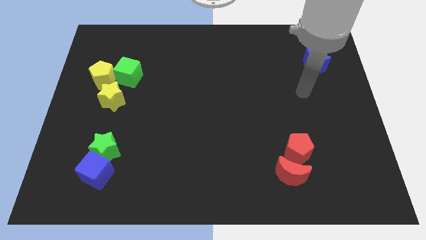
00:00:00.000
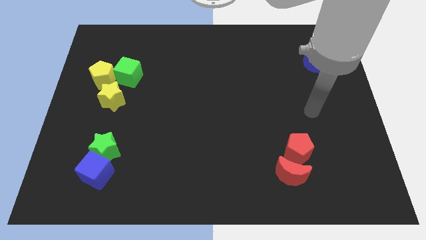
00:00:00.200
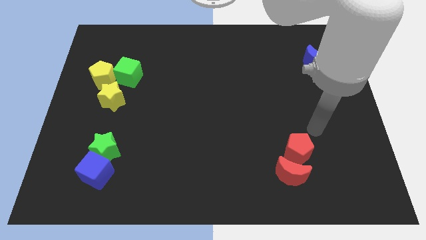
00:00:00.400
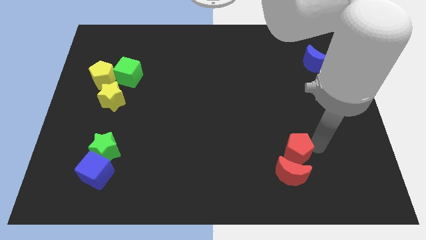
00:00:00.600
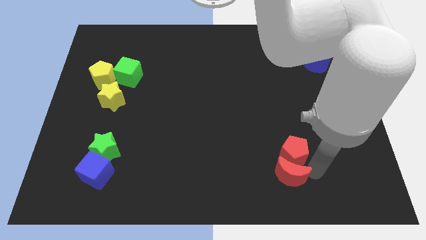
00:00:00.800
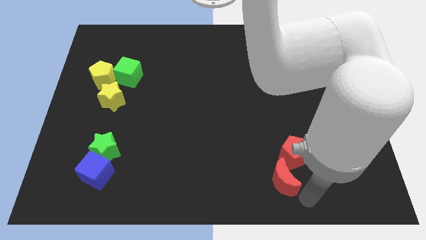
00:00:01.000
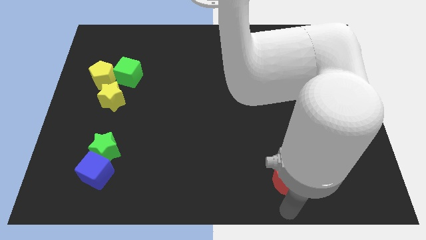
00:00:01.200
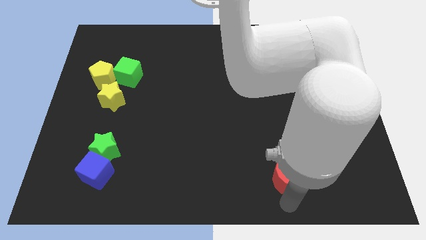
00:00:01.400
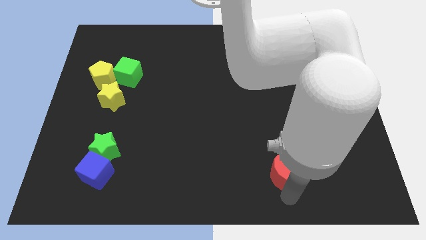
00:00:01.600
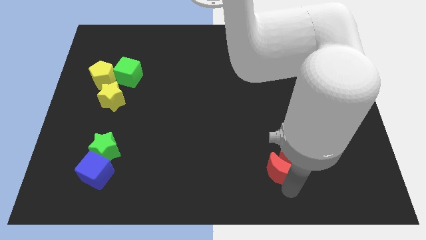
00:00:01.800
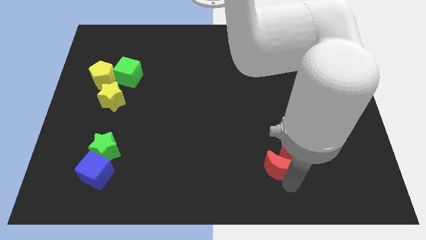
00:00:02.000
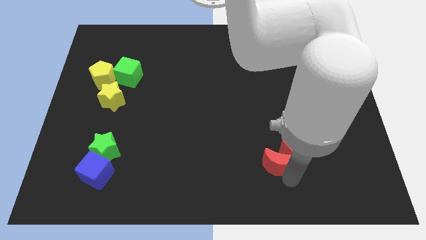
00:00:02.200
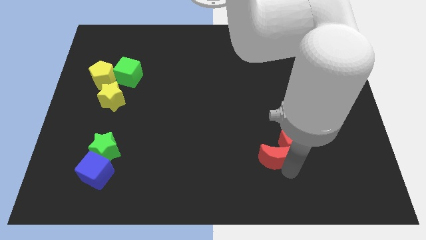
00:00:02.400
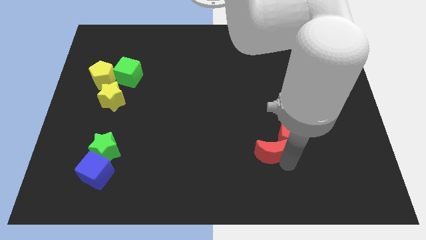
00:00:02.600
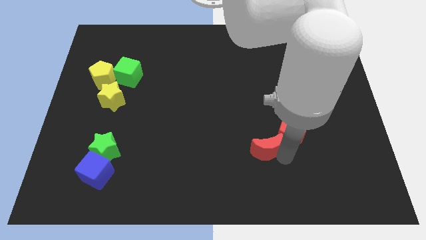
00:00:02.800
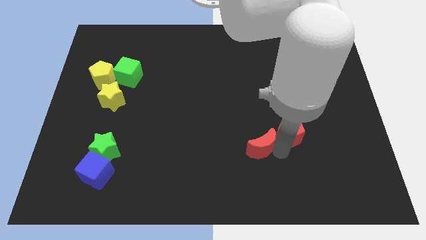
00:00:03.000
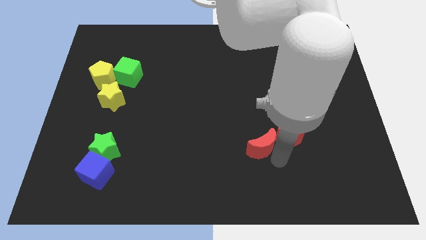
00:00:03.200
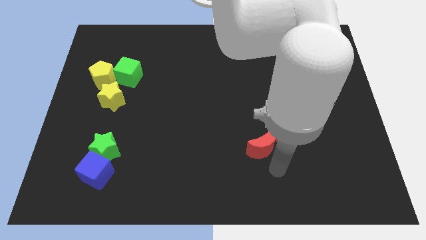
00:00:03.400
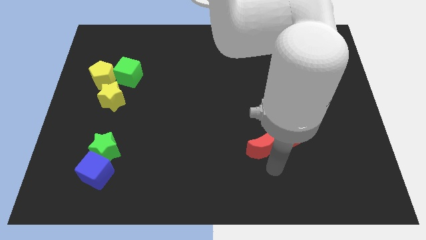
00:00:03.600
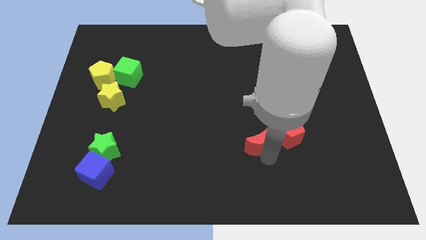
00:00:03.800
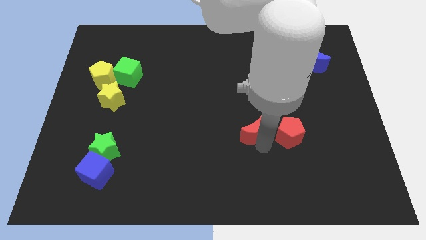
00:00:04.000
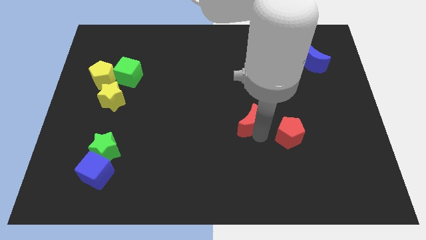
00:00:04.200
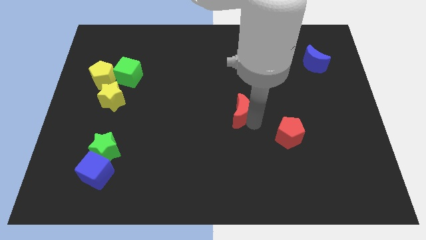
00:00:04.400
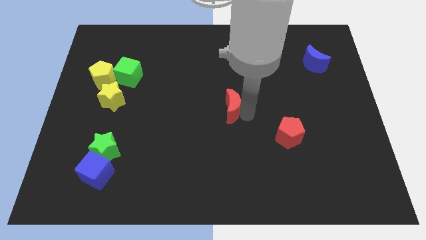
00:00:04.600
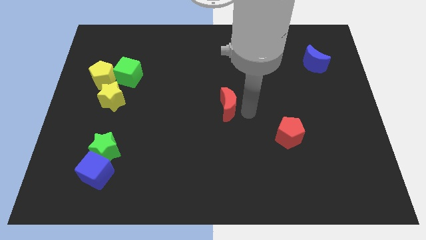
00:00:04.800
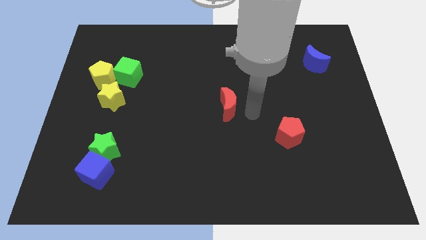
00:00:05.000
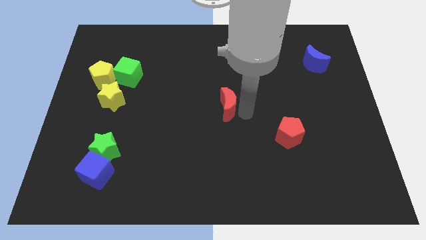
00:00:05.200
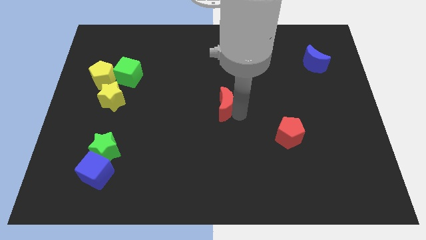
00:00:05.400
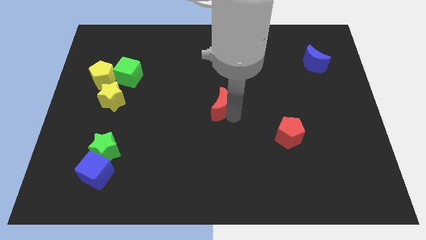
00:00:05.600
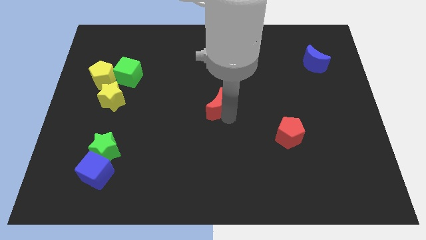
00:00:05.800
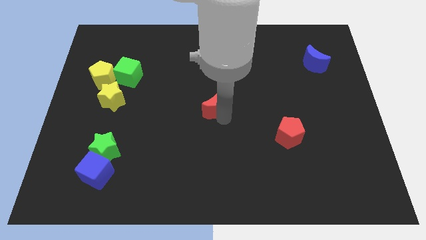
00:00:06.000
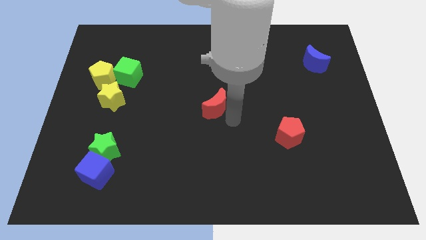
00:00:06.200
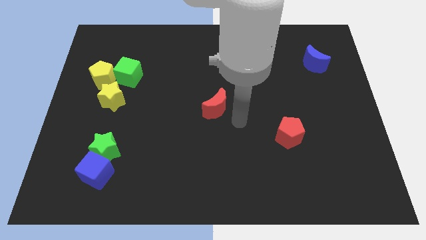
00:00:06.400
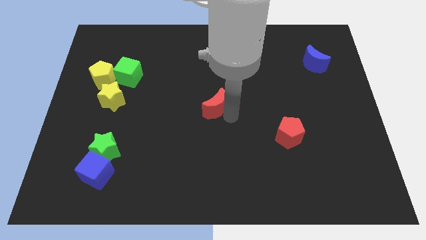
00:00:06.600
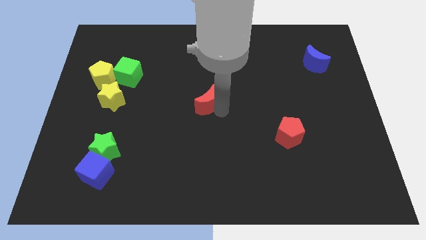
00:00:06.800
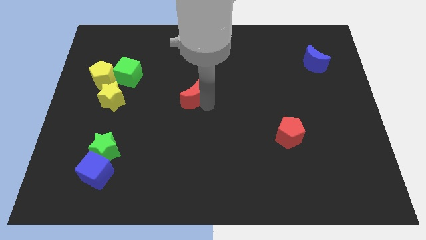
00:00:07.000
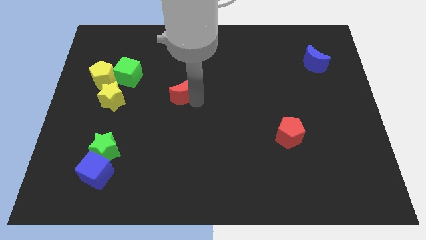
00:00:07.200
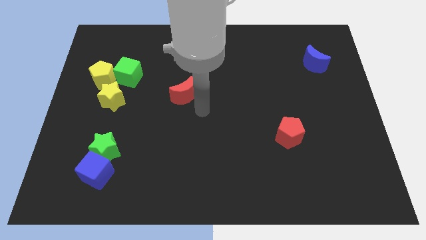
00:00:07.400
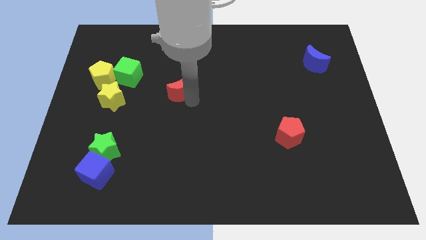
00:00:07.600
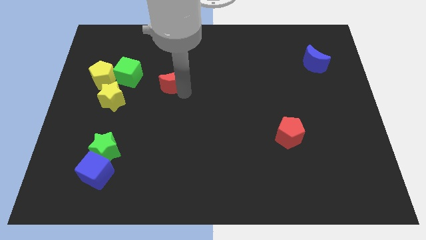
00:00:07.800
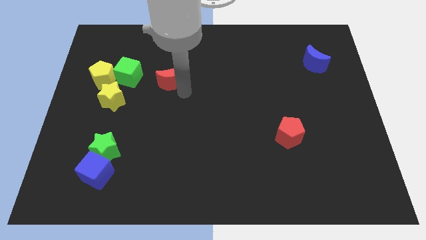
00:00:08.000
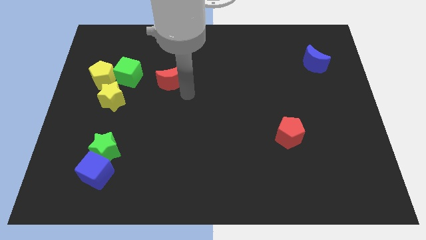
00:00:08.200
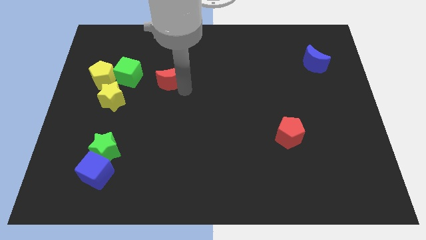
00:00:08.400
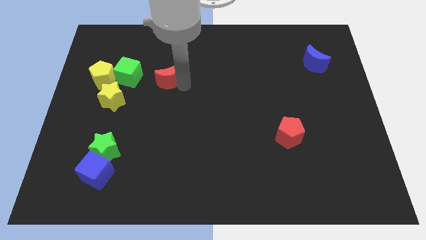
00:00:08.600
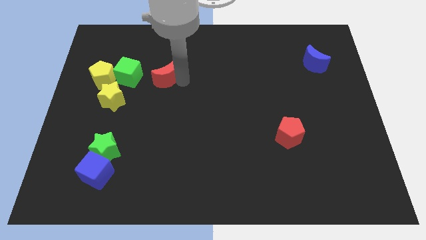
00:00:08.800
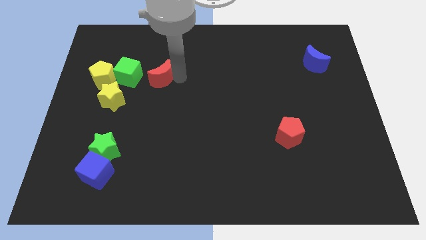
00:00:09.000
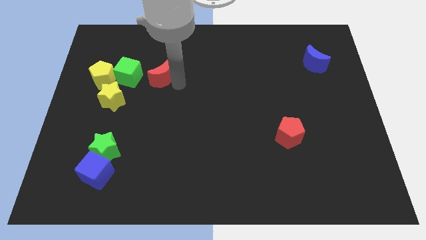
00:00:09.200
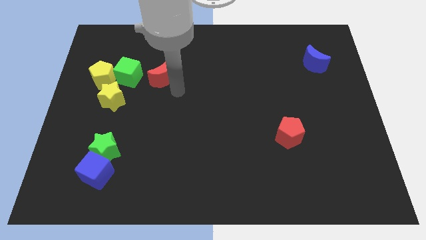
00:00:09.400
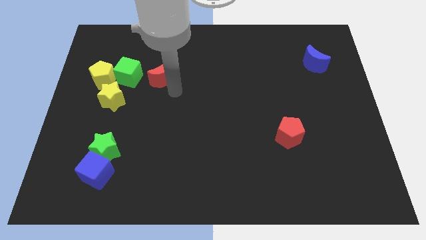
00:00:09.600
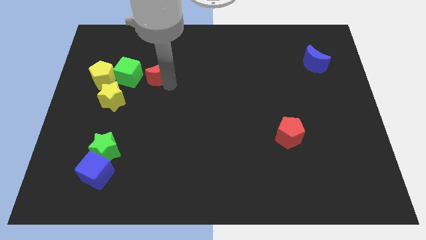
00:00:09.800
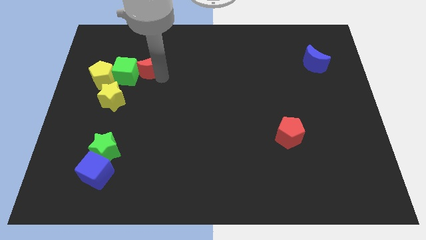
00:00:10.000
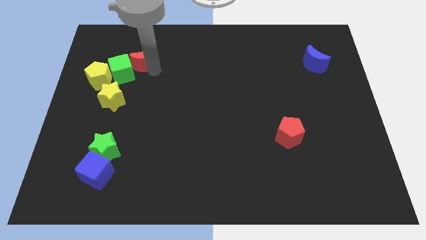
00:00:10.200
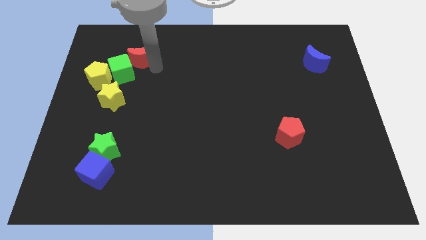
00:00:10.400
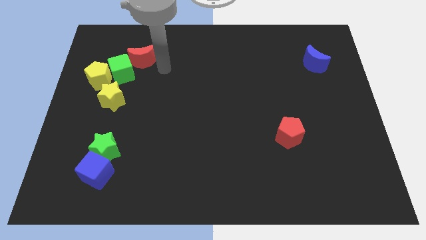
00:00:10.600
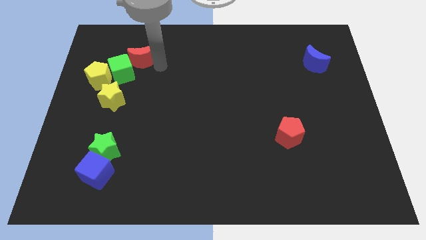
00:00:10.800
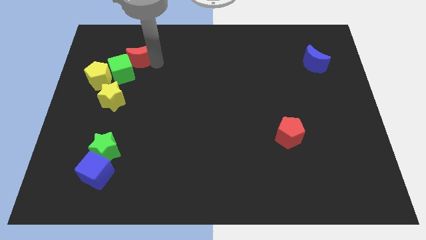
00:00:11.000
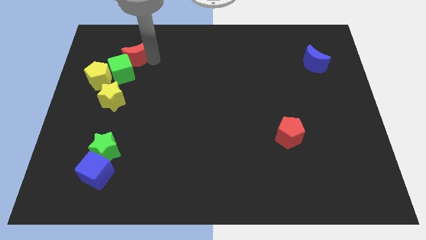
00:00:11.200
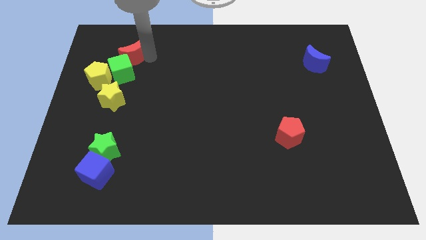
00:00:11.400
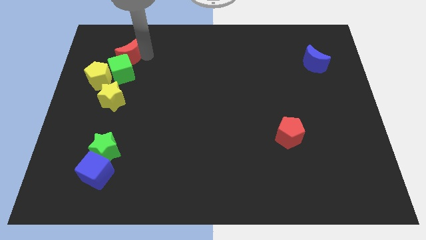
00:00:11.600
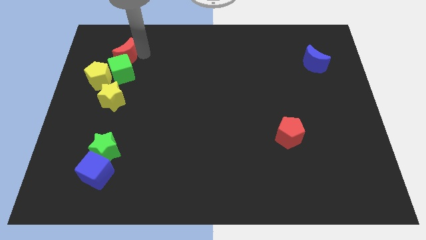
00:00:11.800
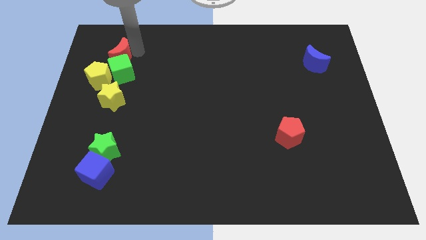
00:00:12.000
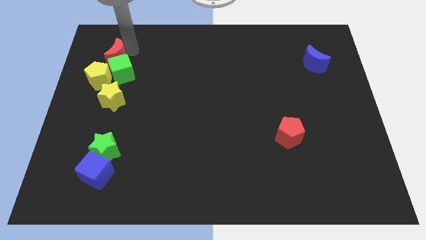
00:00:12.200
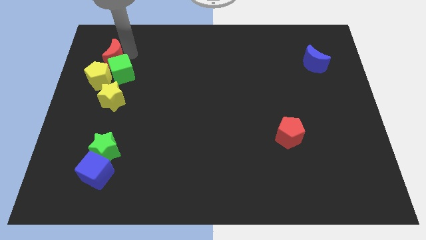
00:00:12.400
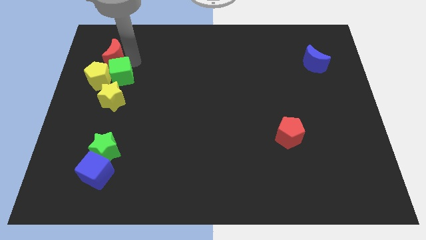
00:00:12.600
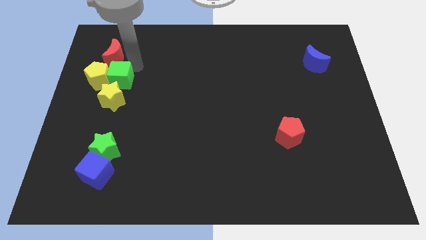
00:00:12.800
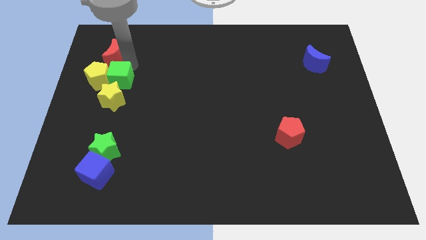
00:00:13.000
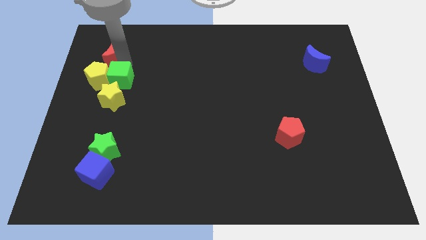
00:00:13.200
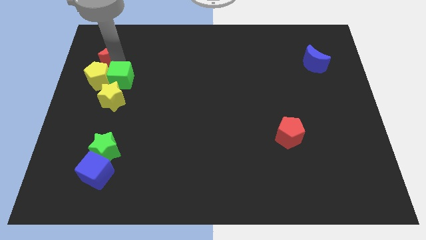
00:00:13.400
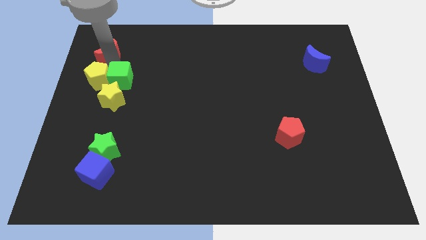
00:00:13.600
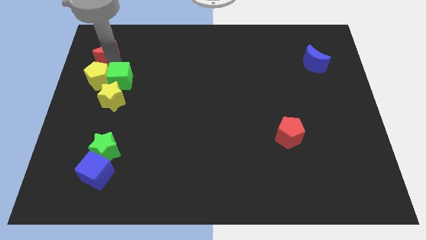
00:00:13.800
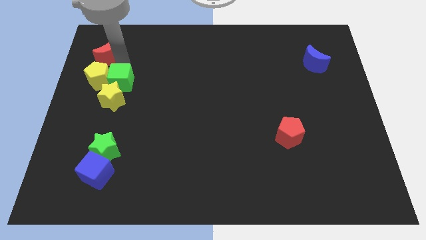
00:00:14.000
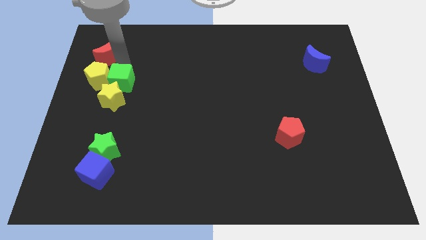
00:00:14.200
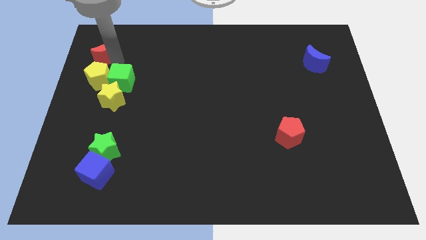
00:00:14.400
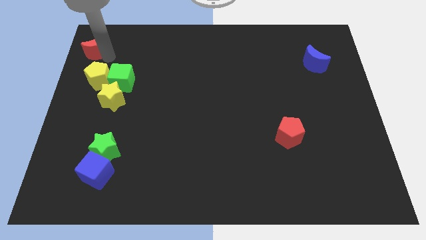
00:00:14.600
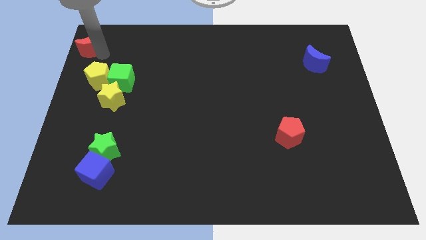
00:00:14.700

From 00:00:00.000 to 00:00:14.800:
slide the red moon to the upper left corner
